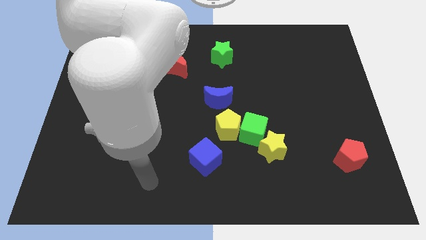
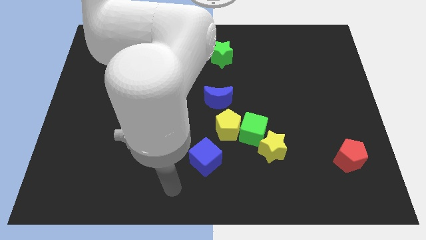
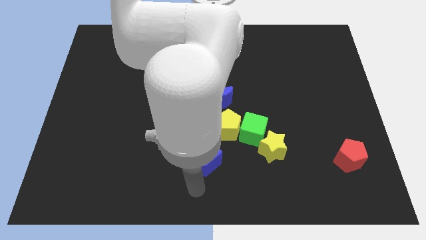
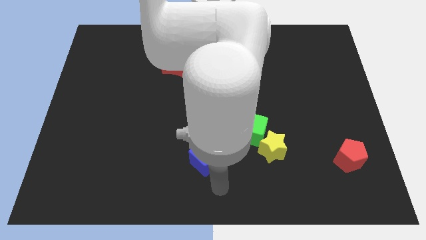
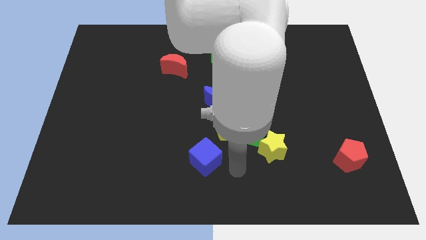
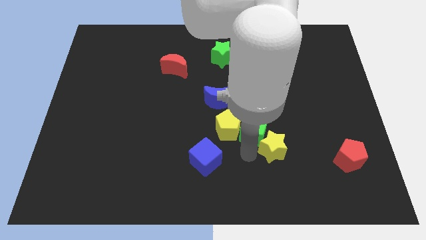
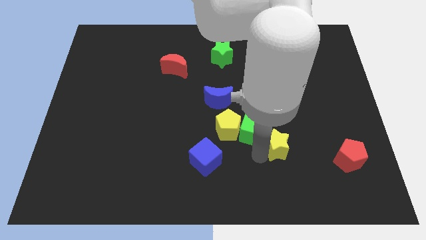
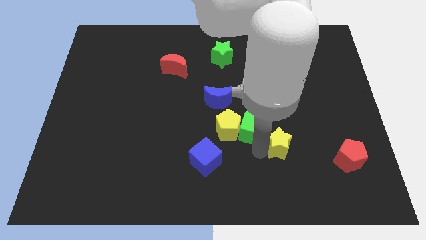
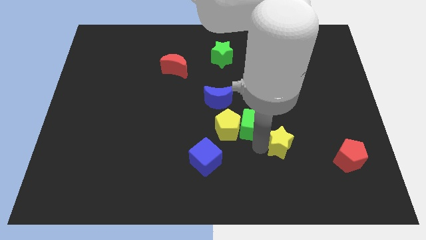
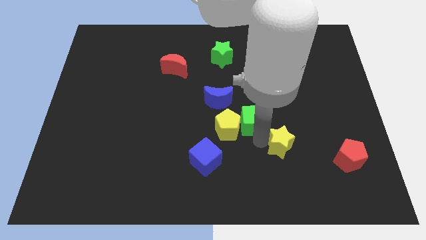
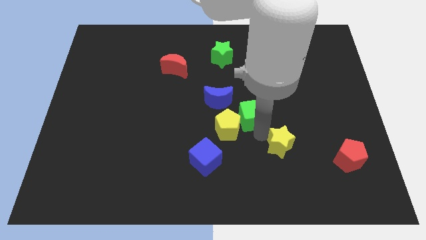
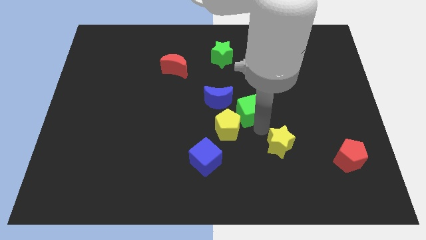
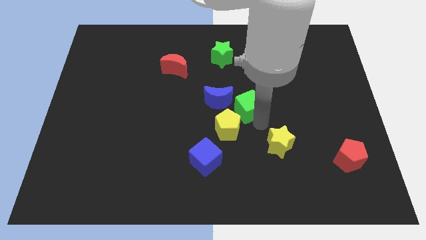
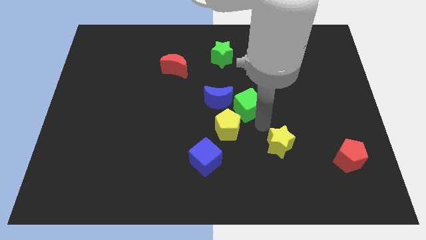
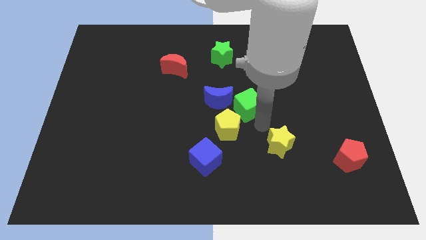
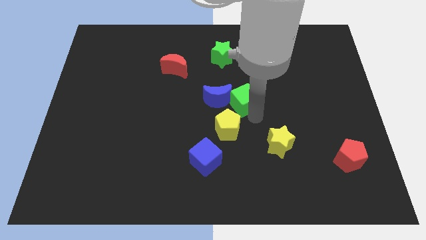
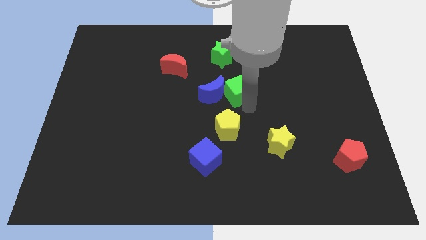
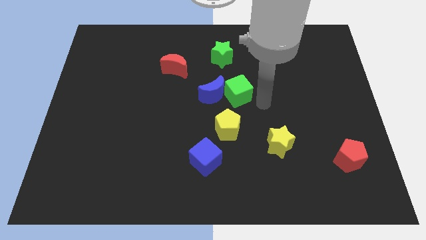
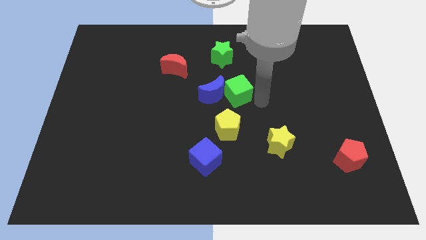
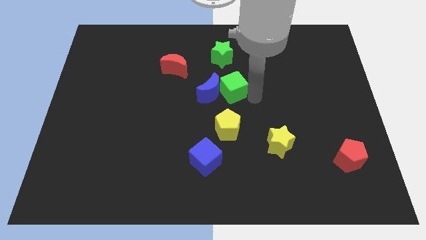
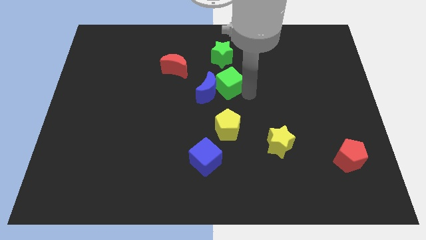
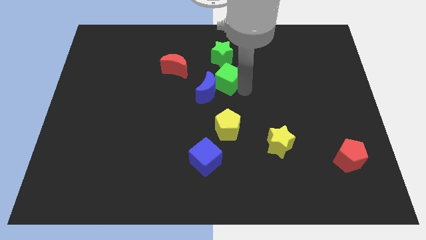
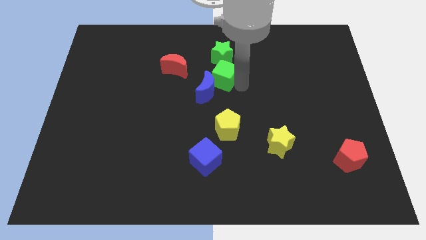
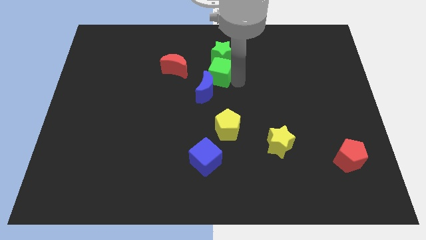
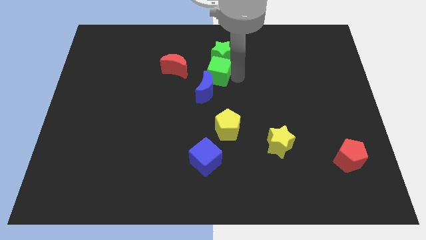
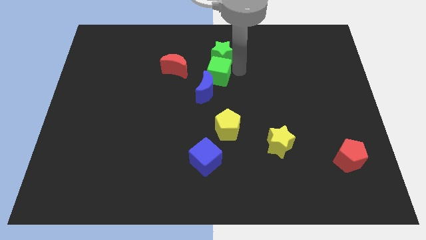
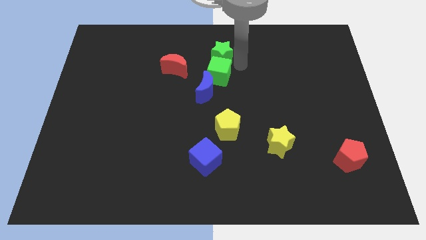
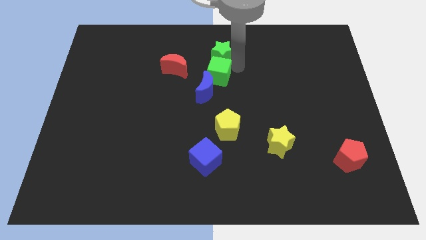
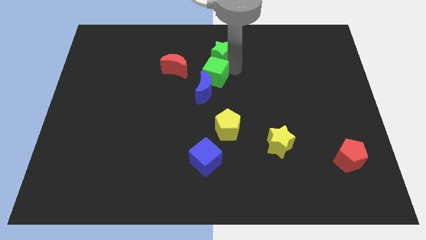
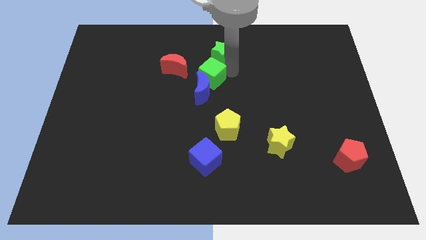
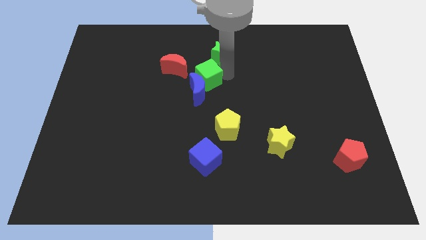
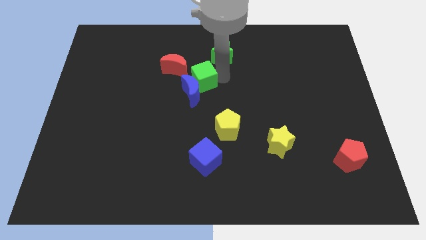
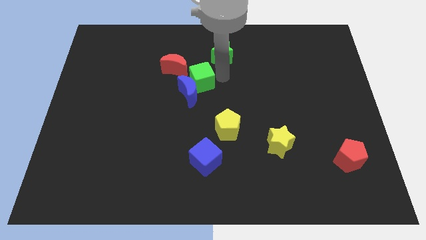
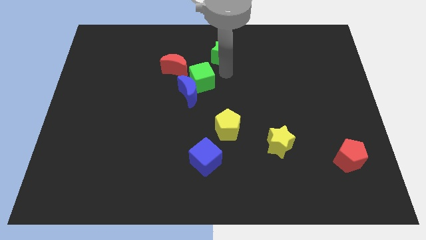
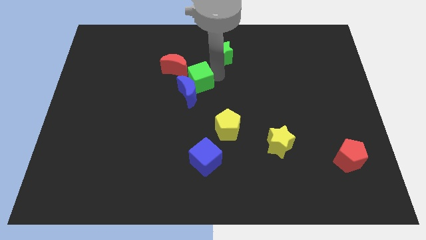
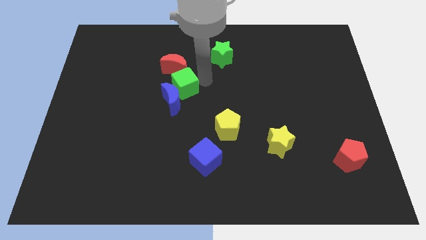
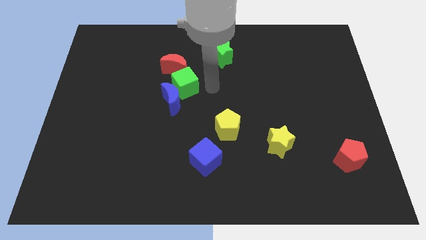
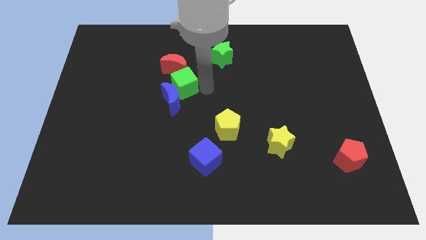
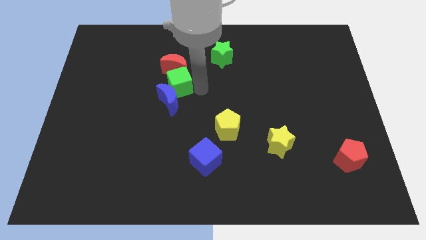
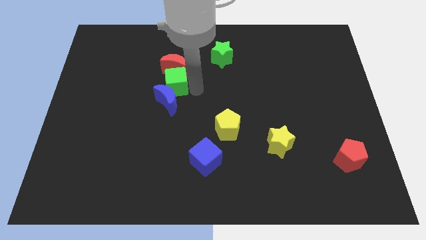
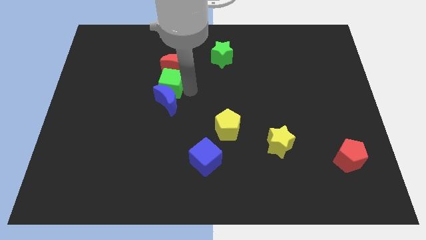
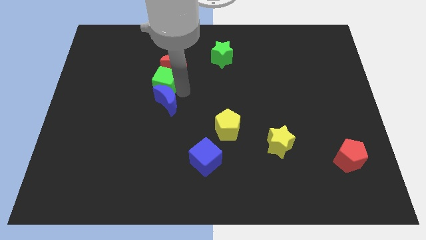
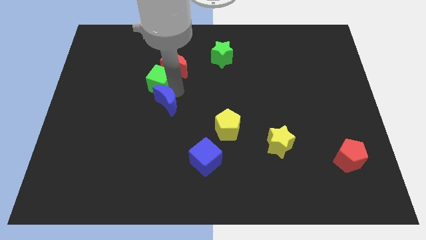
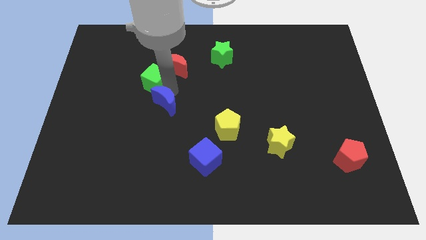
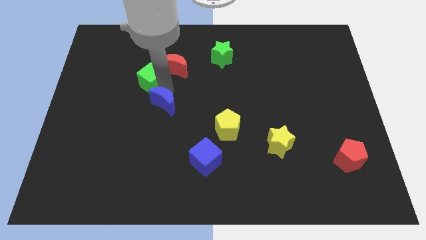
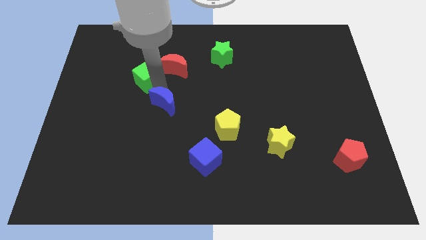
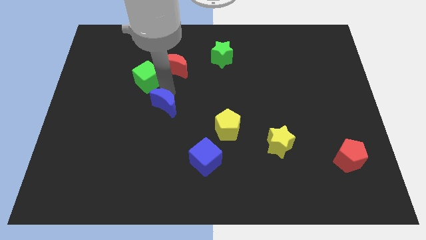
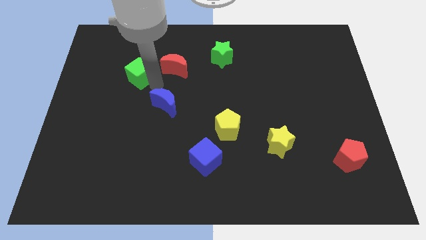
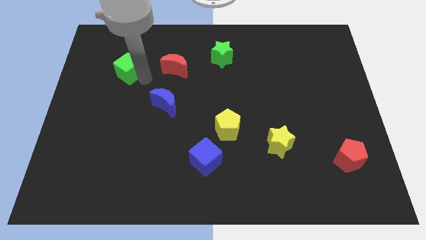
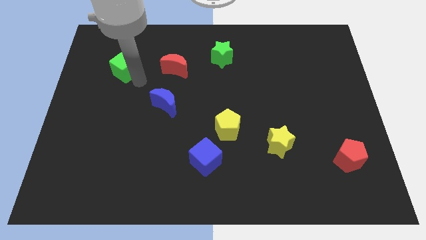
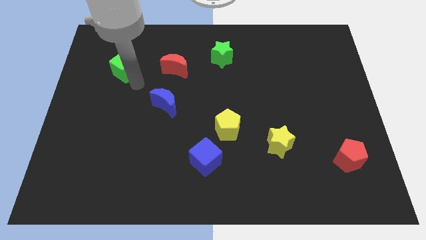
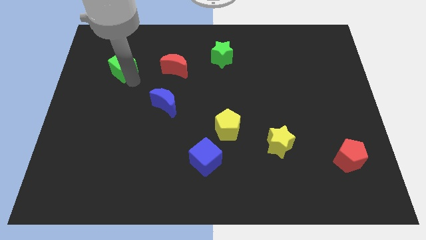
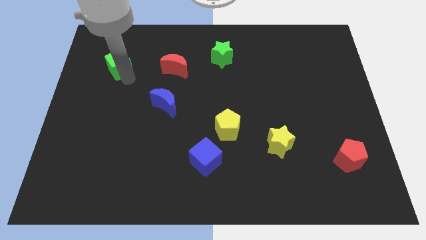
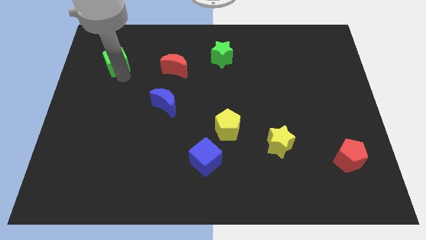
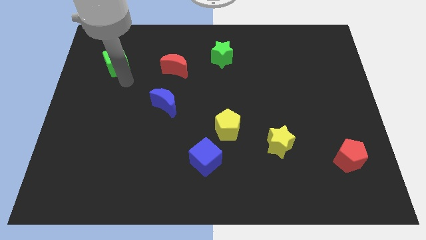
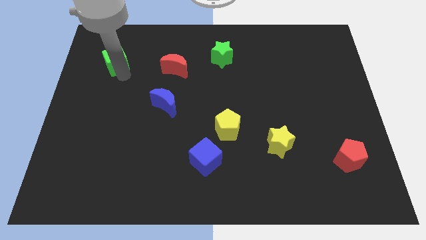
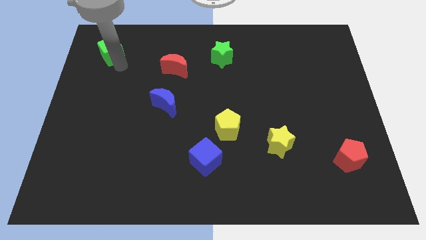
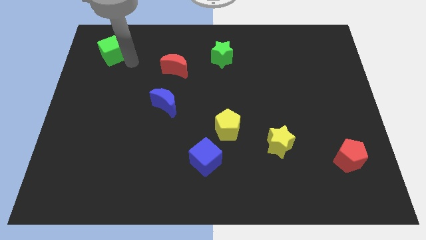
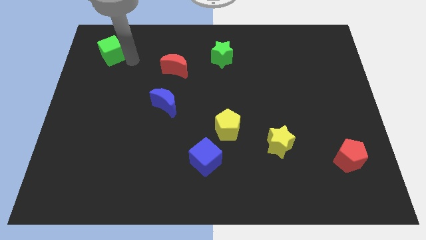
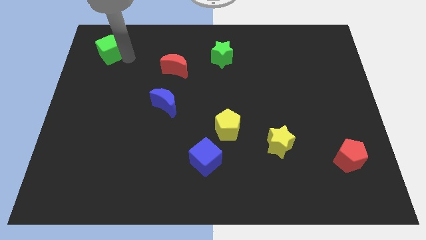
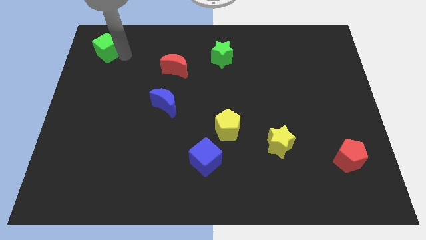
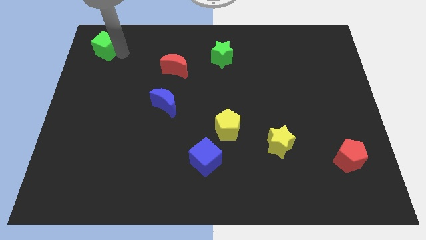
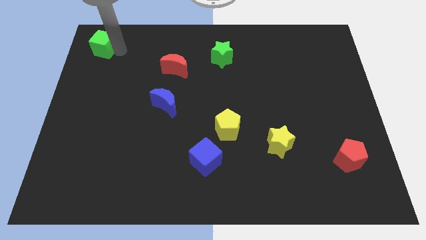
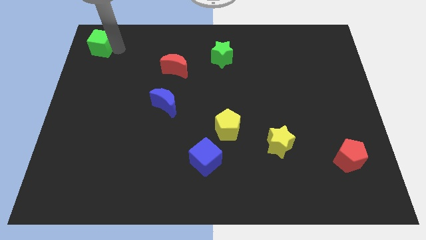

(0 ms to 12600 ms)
push the green cube to the top left corner

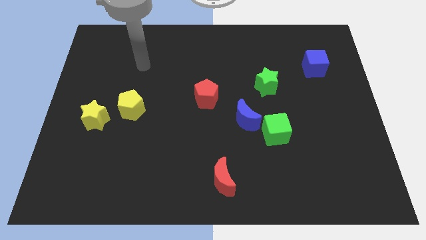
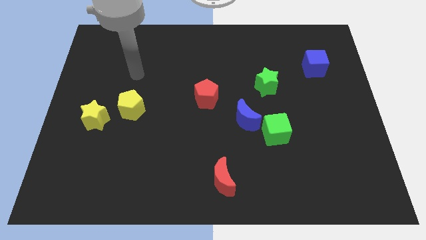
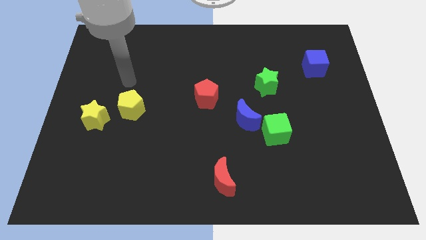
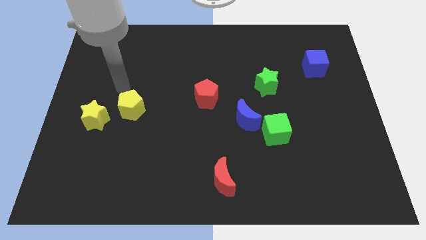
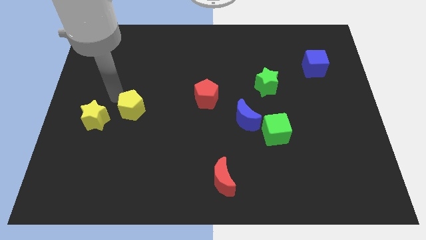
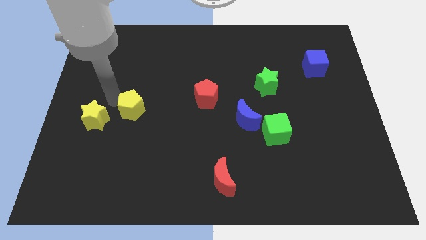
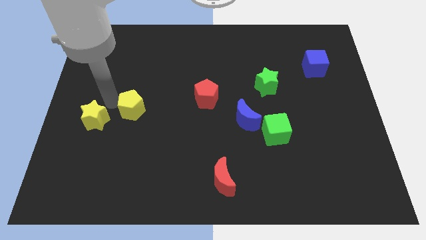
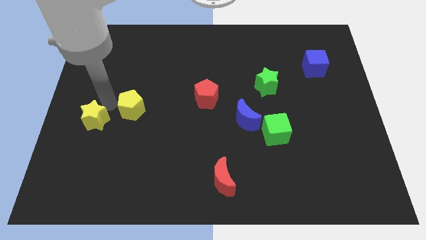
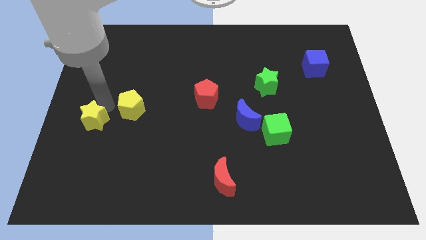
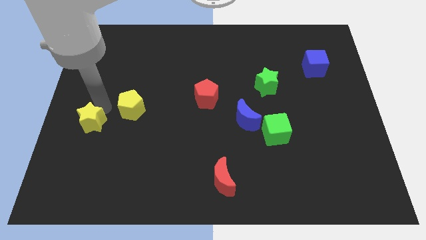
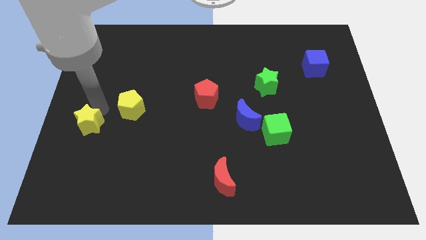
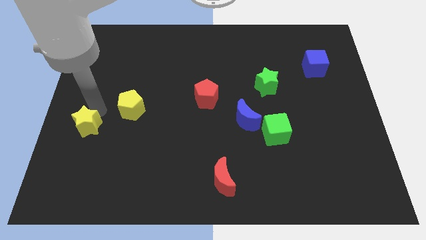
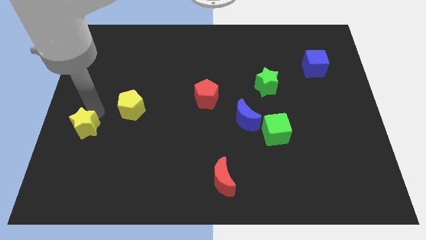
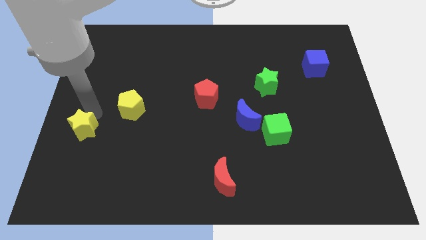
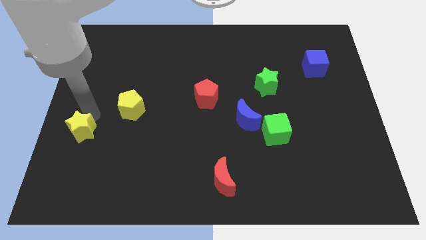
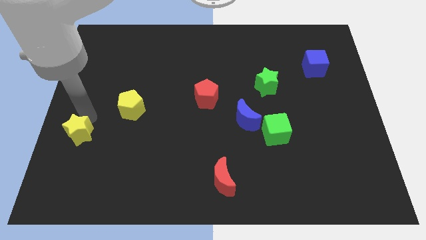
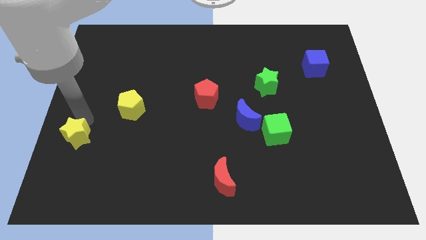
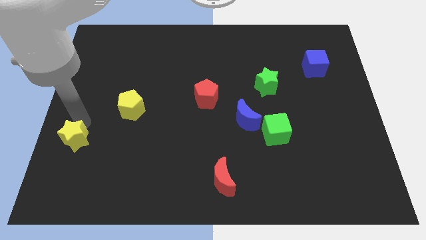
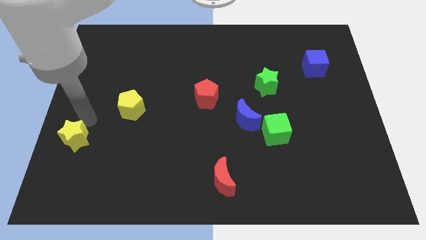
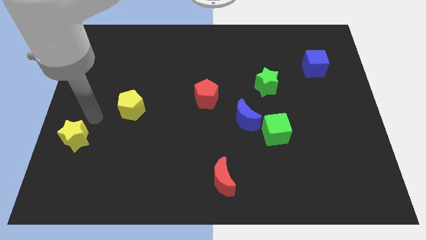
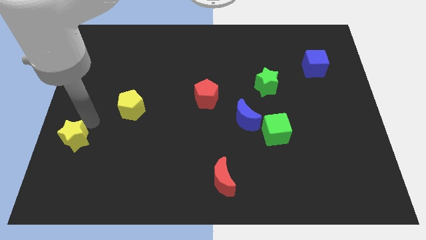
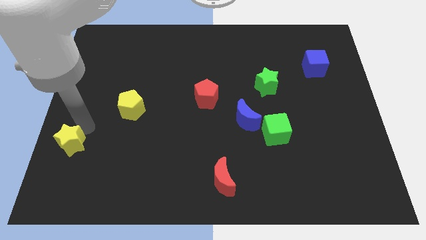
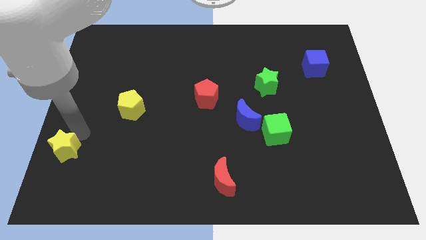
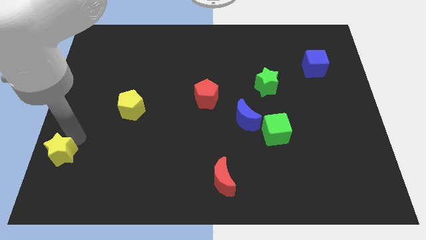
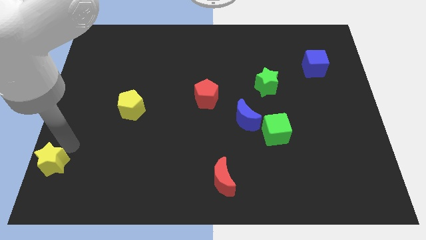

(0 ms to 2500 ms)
move the yellow star to the lower left corner
